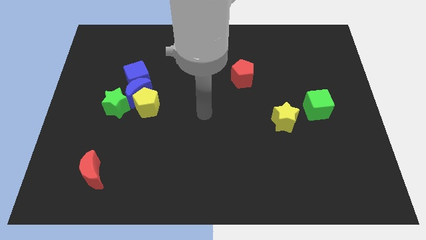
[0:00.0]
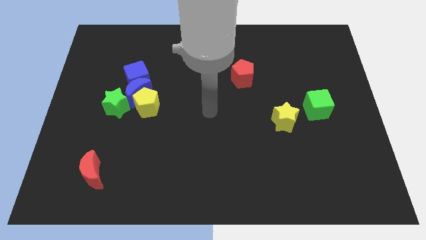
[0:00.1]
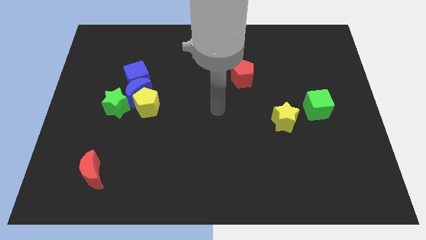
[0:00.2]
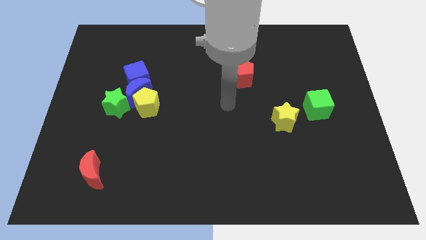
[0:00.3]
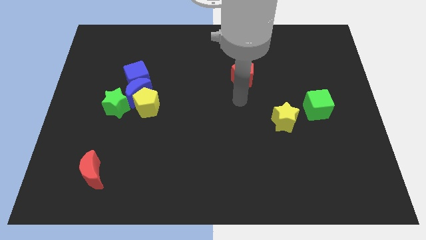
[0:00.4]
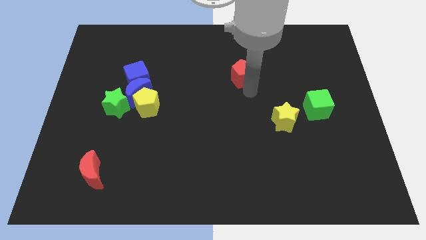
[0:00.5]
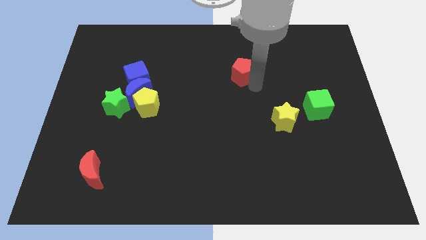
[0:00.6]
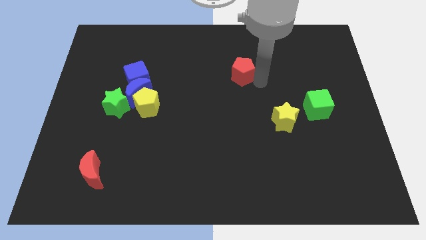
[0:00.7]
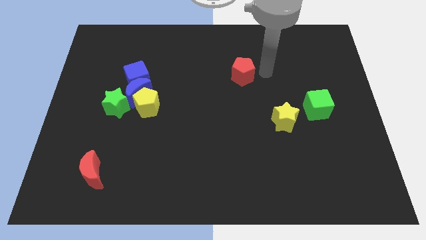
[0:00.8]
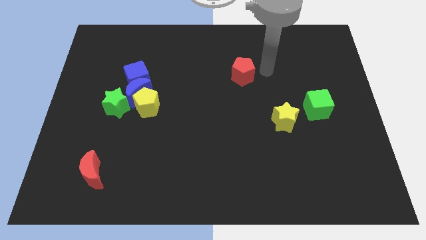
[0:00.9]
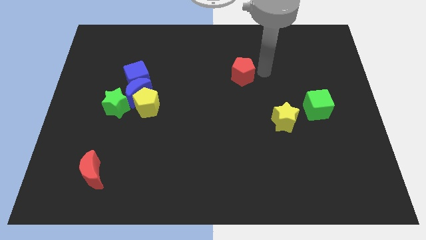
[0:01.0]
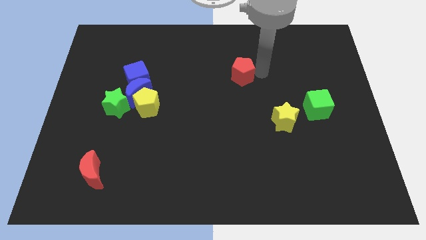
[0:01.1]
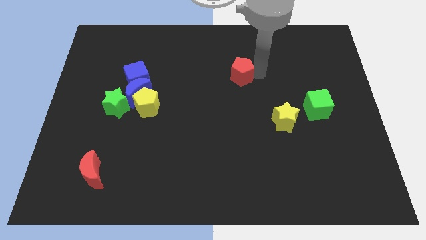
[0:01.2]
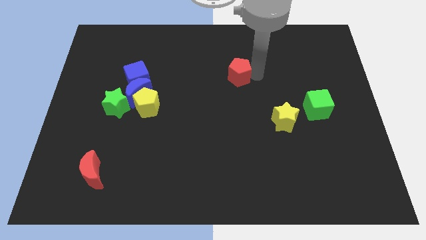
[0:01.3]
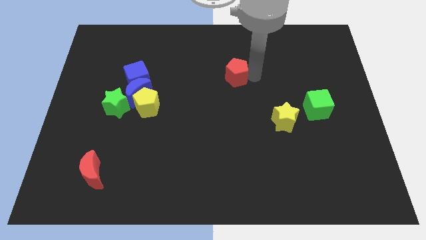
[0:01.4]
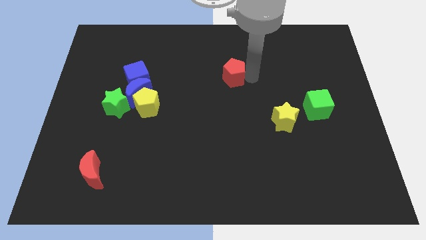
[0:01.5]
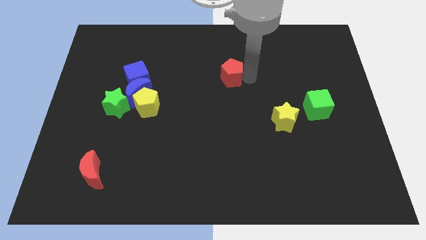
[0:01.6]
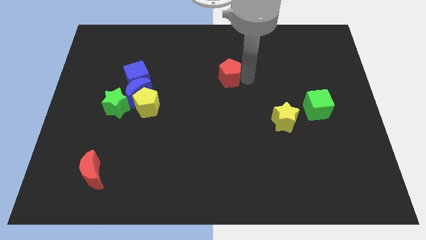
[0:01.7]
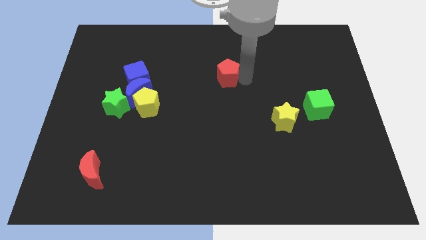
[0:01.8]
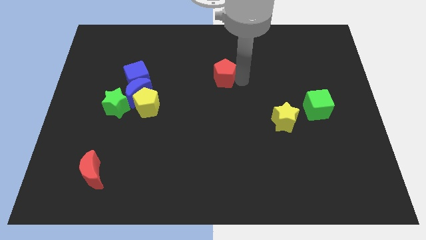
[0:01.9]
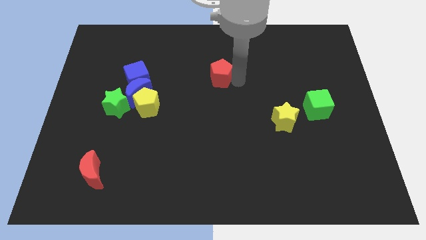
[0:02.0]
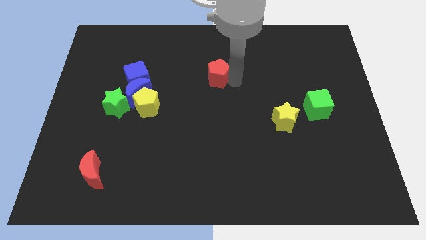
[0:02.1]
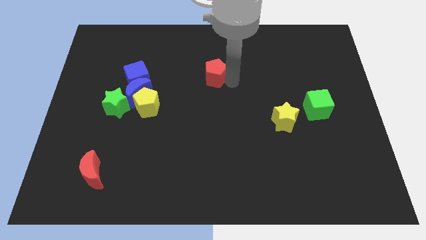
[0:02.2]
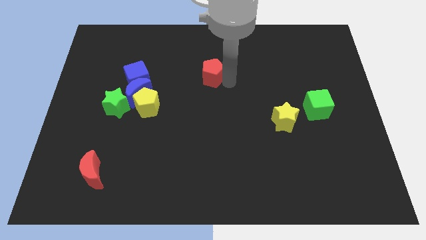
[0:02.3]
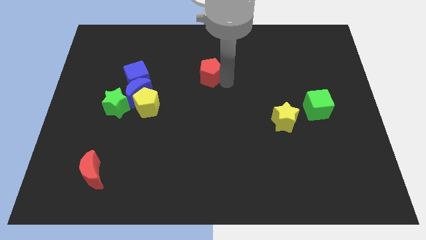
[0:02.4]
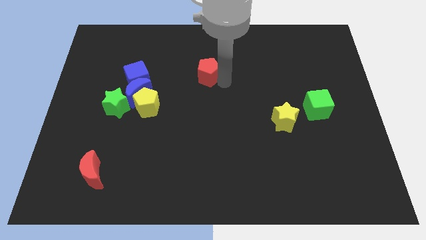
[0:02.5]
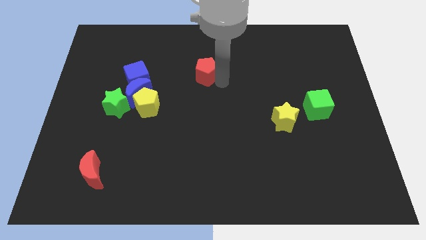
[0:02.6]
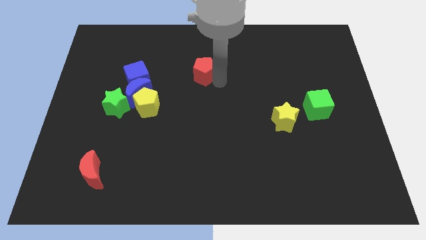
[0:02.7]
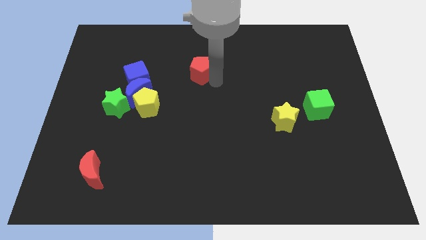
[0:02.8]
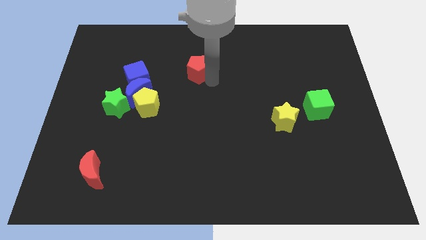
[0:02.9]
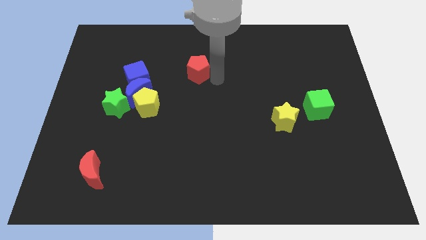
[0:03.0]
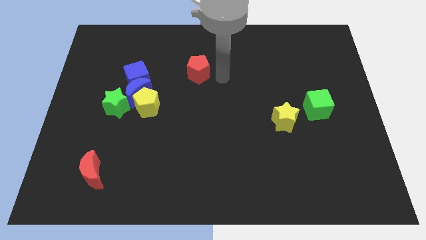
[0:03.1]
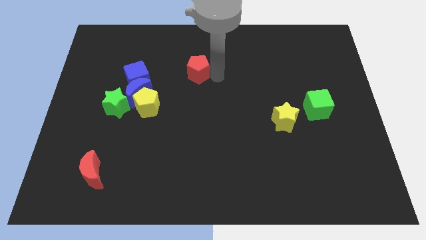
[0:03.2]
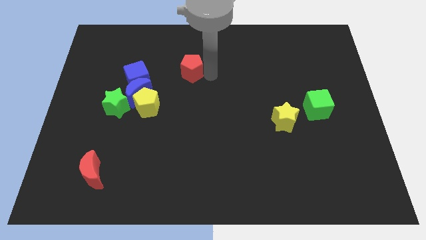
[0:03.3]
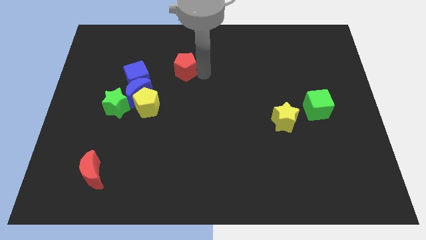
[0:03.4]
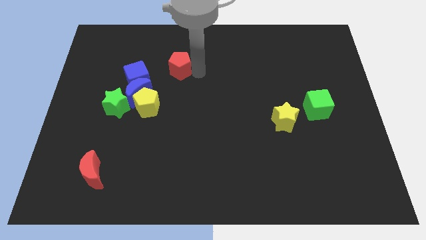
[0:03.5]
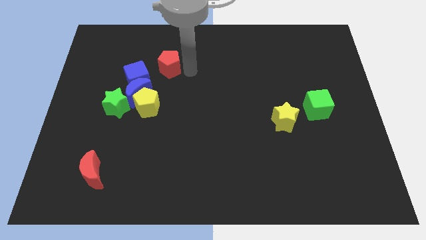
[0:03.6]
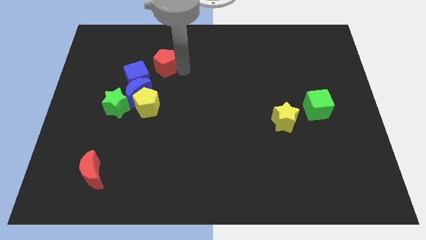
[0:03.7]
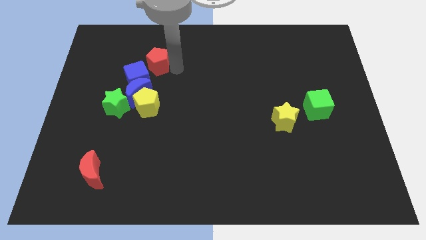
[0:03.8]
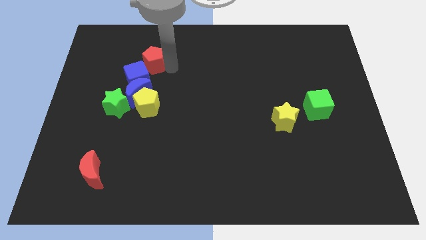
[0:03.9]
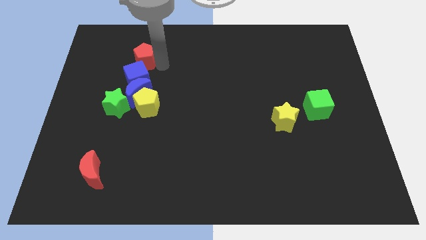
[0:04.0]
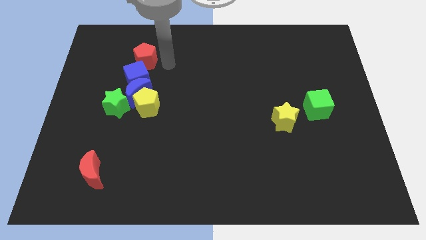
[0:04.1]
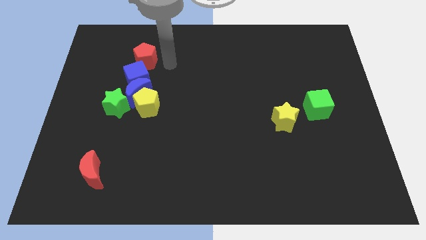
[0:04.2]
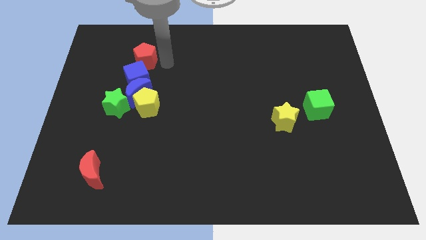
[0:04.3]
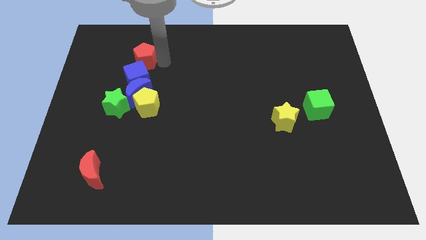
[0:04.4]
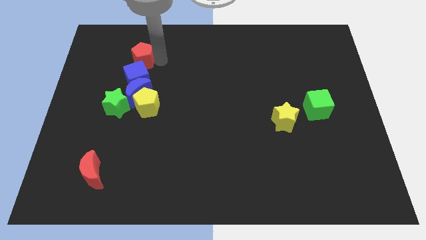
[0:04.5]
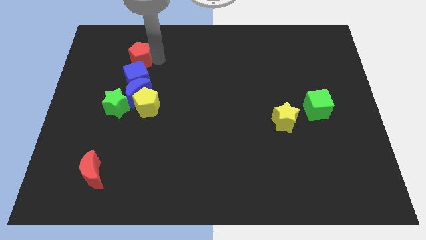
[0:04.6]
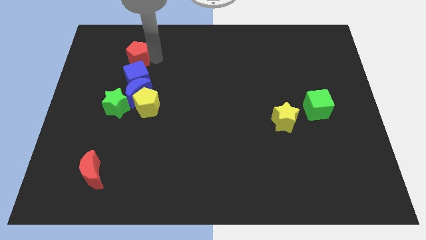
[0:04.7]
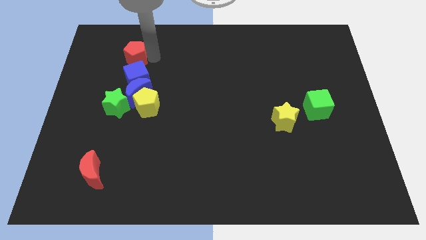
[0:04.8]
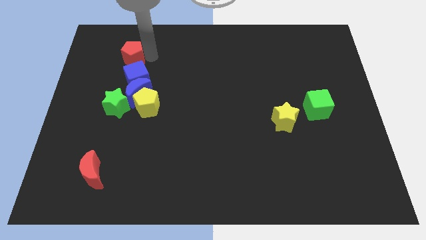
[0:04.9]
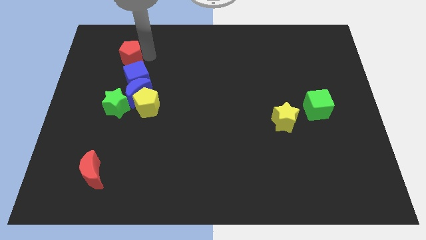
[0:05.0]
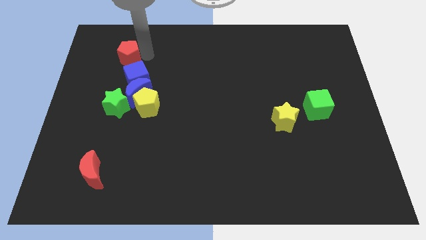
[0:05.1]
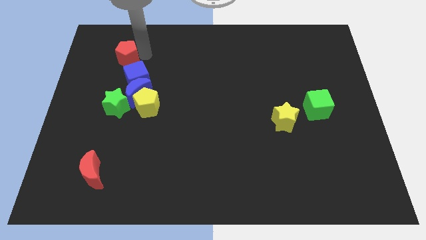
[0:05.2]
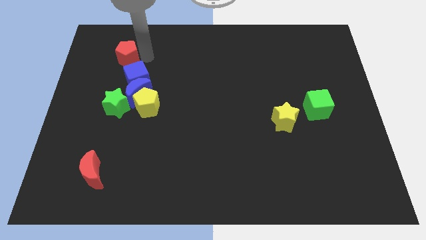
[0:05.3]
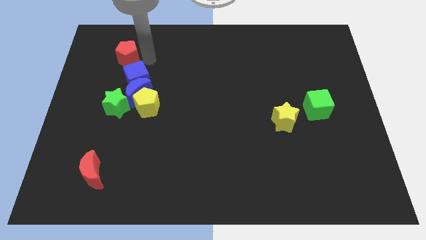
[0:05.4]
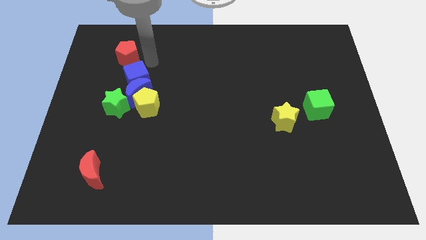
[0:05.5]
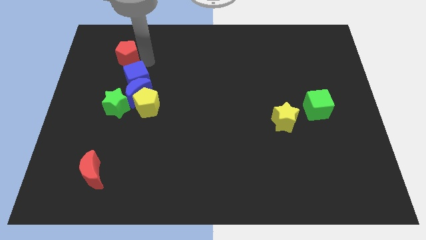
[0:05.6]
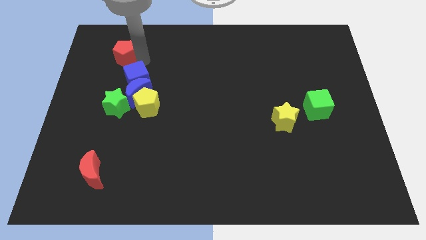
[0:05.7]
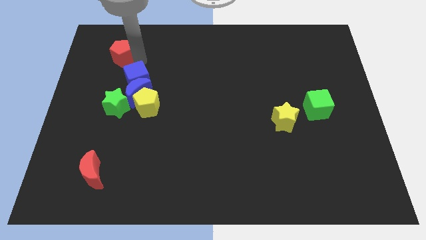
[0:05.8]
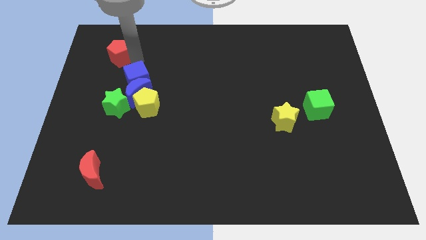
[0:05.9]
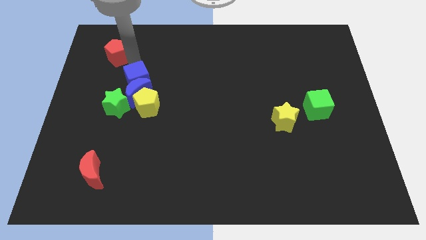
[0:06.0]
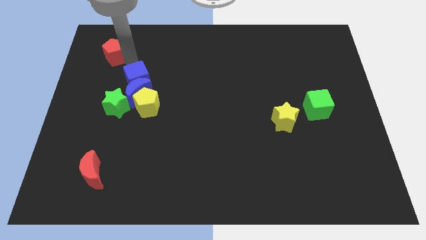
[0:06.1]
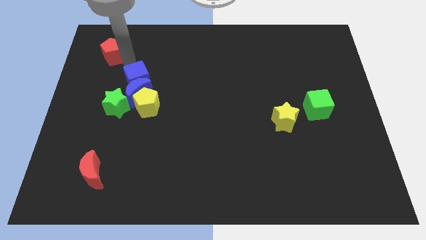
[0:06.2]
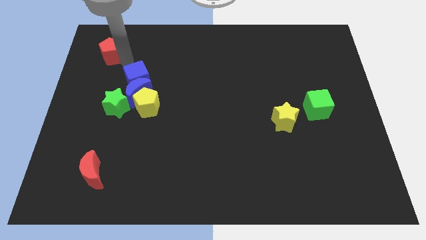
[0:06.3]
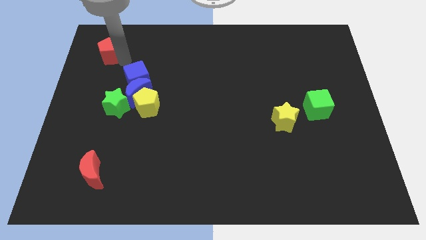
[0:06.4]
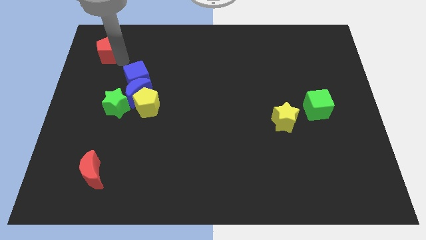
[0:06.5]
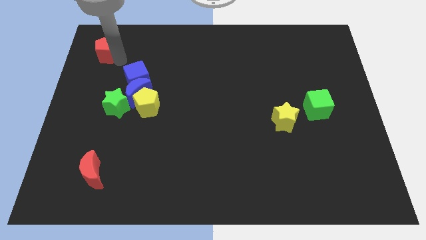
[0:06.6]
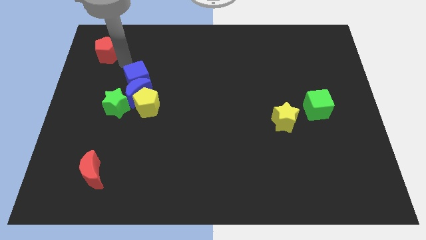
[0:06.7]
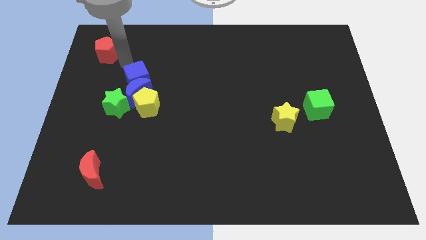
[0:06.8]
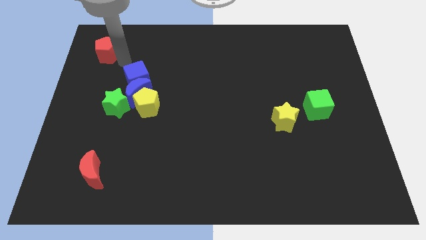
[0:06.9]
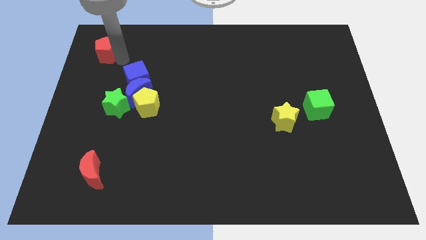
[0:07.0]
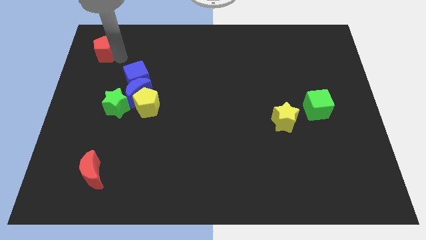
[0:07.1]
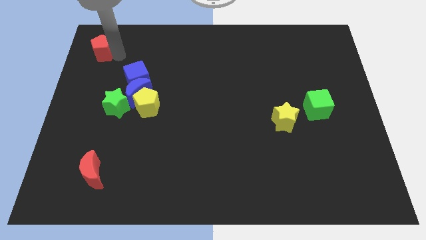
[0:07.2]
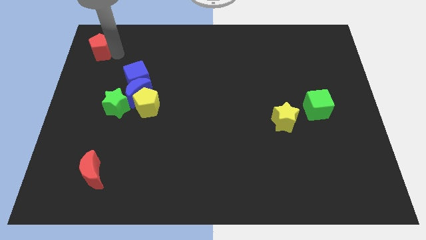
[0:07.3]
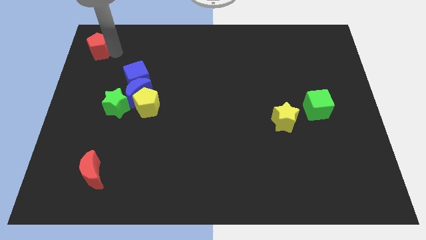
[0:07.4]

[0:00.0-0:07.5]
move the red pentagon to the upper left corner
